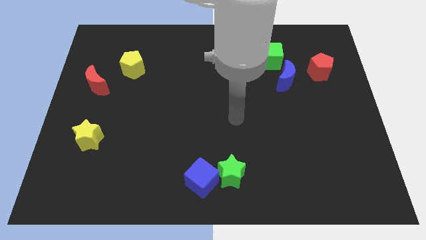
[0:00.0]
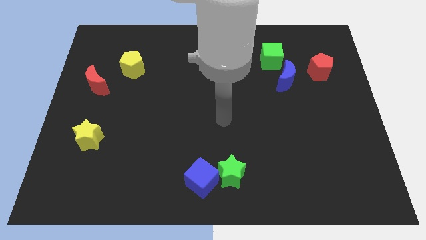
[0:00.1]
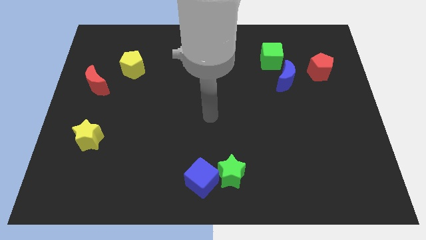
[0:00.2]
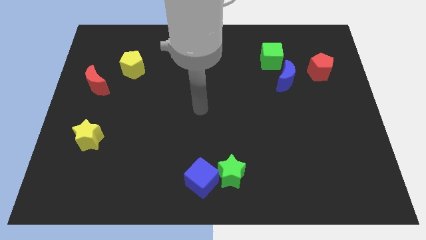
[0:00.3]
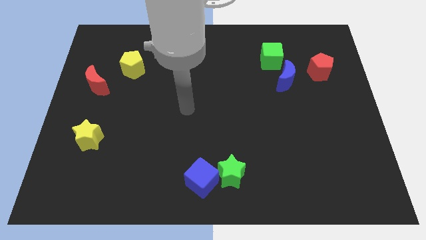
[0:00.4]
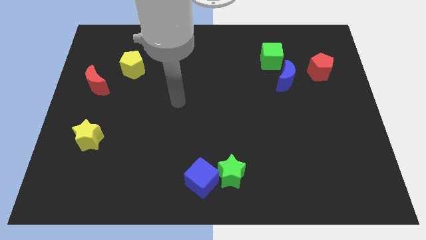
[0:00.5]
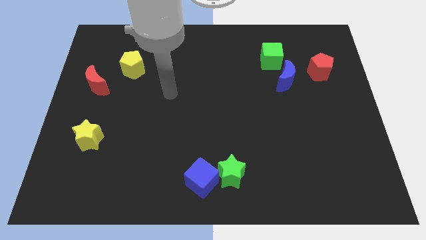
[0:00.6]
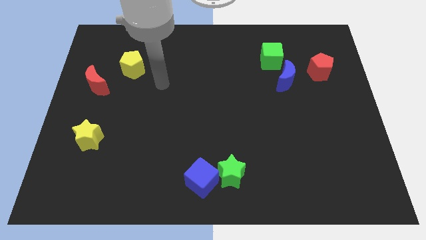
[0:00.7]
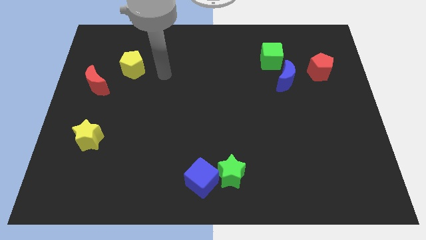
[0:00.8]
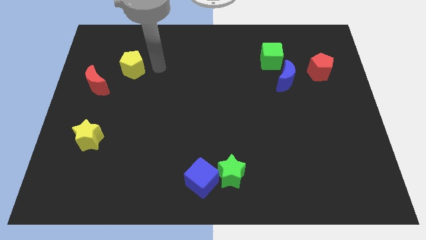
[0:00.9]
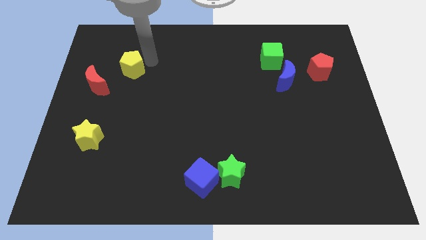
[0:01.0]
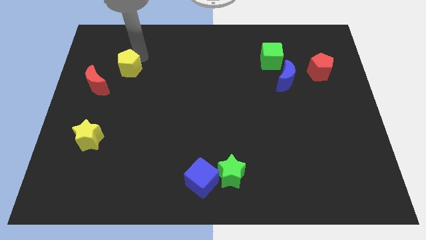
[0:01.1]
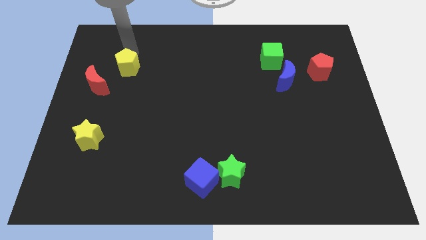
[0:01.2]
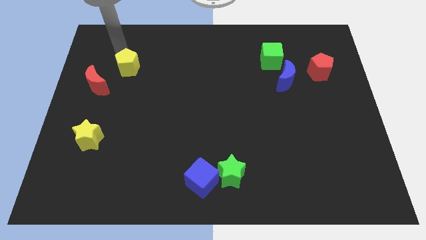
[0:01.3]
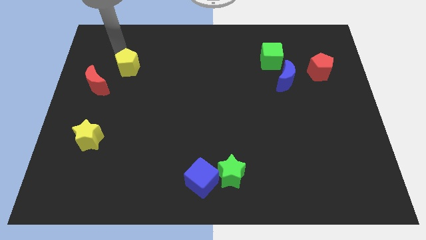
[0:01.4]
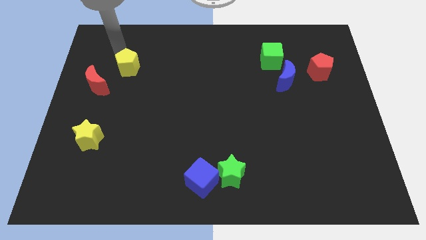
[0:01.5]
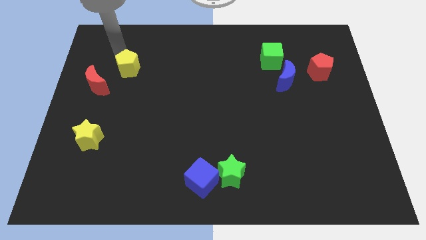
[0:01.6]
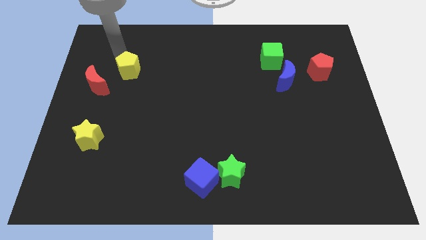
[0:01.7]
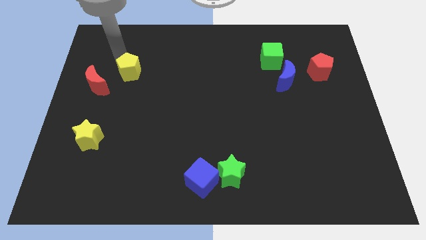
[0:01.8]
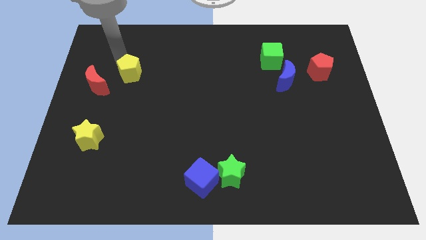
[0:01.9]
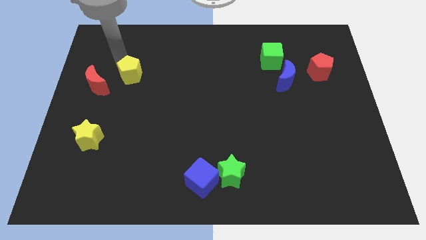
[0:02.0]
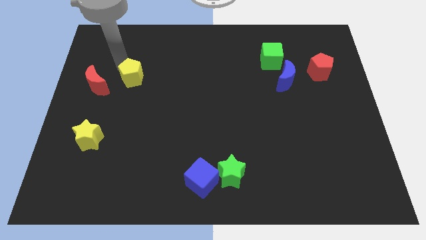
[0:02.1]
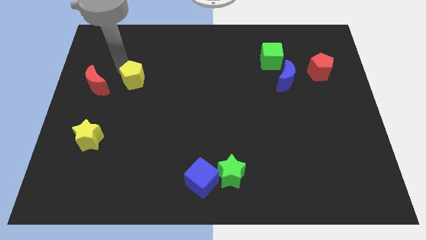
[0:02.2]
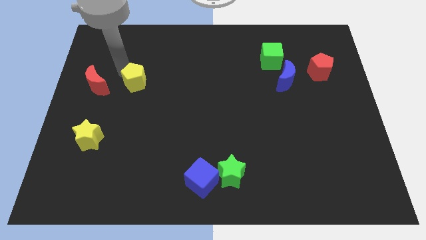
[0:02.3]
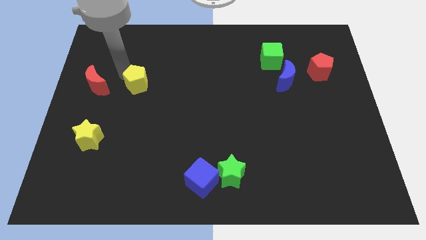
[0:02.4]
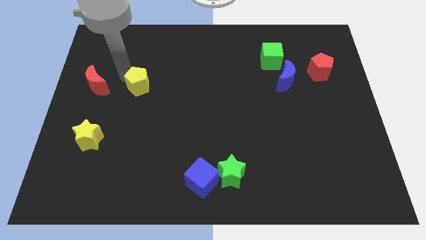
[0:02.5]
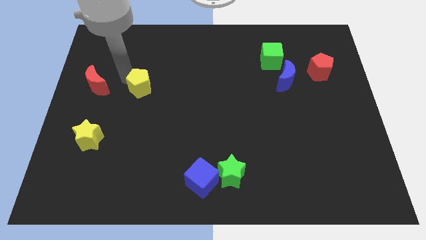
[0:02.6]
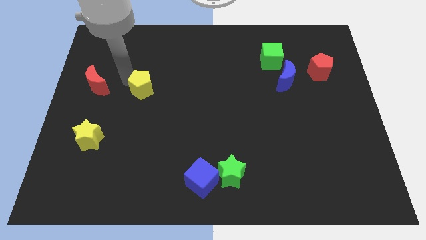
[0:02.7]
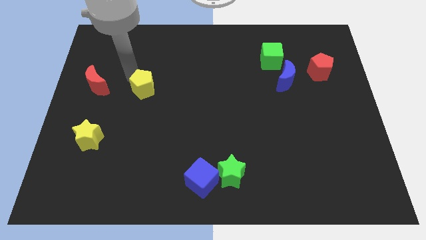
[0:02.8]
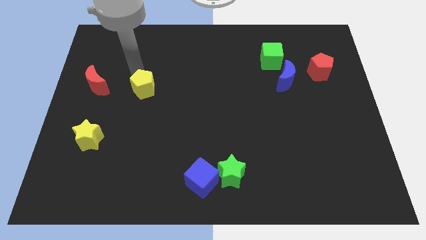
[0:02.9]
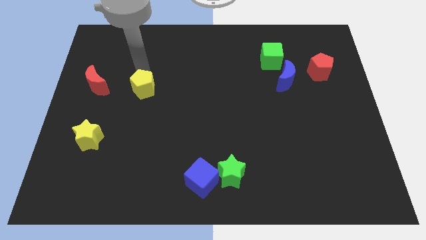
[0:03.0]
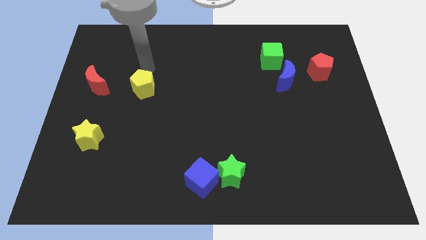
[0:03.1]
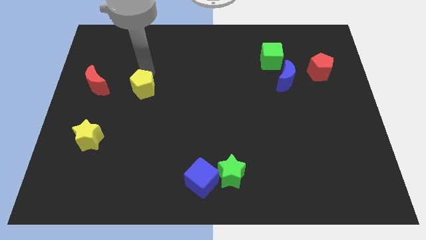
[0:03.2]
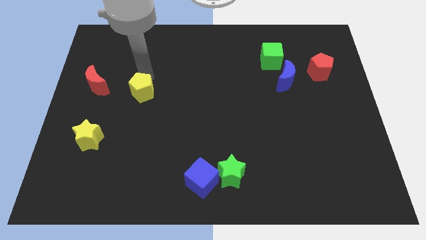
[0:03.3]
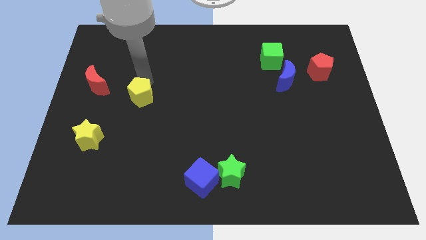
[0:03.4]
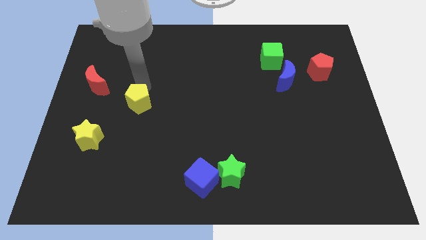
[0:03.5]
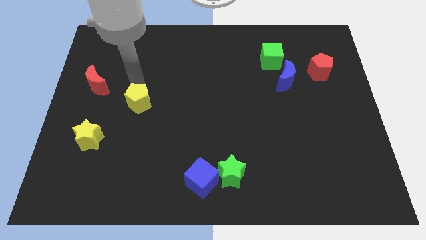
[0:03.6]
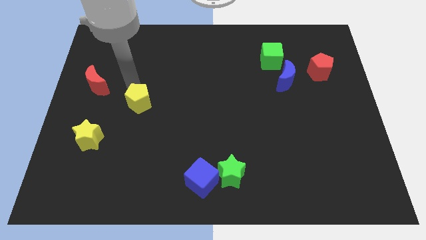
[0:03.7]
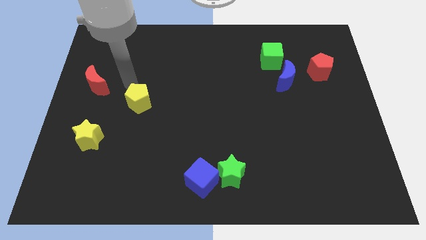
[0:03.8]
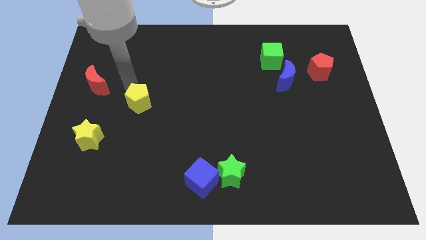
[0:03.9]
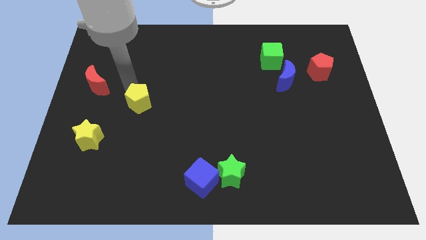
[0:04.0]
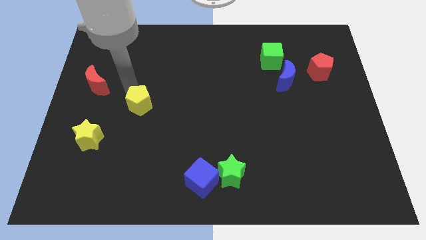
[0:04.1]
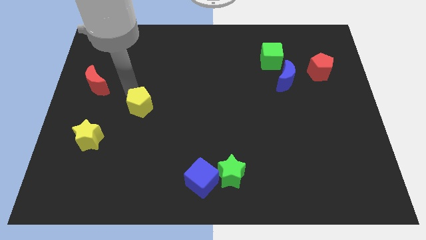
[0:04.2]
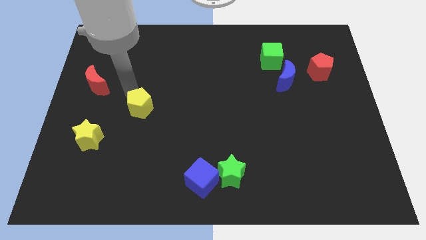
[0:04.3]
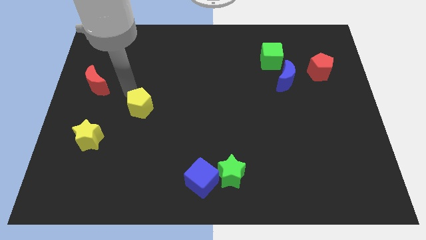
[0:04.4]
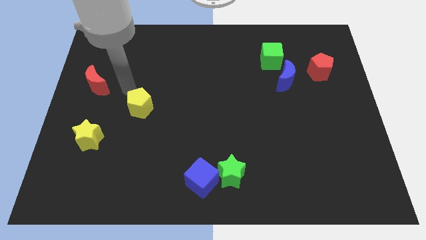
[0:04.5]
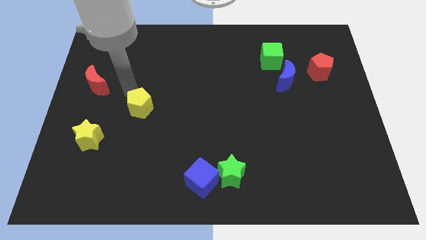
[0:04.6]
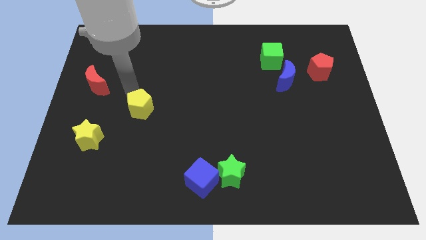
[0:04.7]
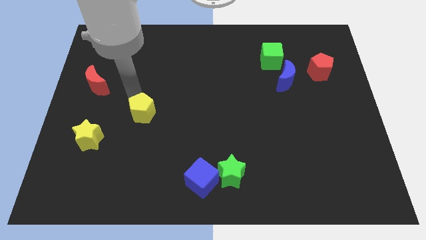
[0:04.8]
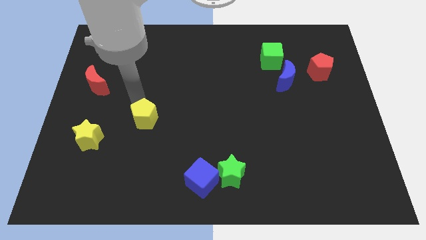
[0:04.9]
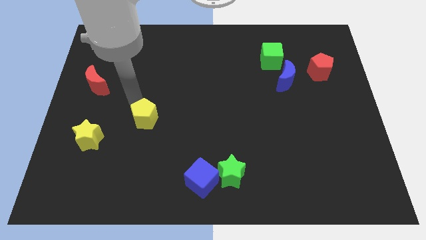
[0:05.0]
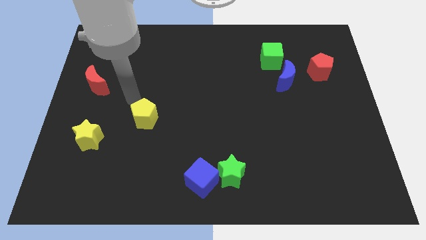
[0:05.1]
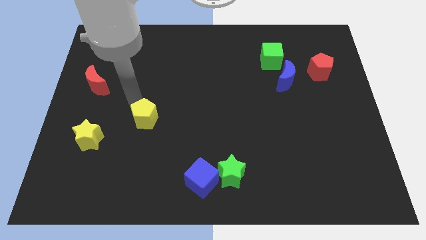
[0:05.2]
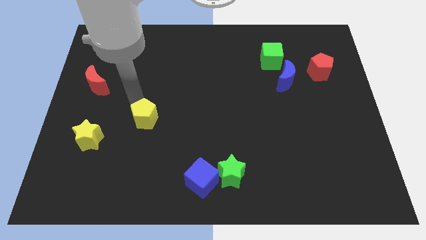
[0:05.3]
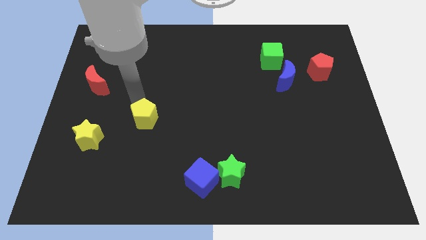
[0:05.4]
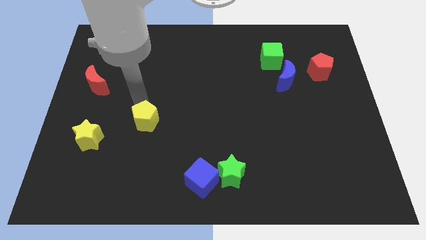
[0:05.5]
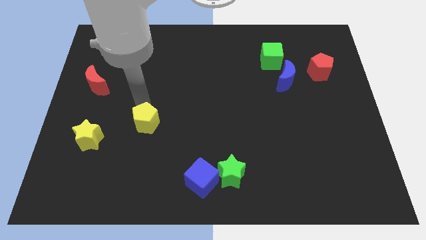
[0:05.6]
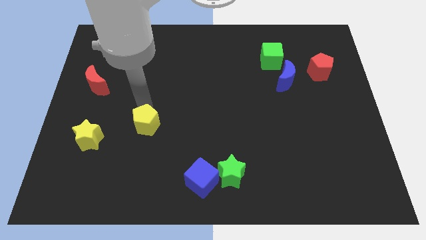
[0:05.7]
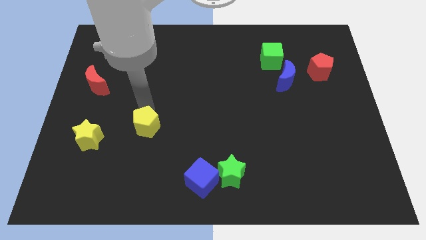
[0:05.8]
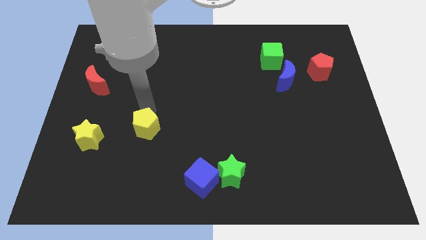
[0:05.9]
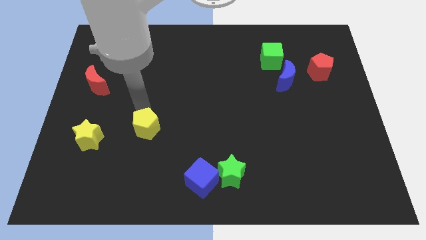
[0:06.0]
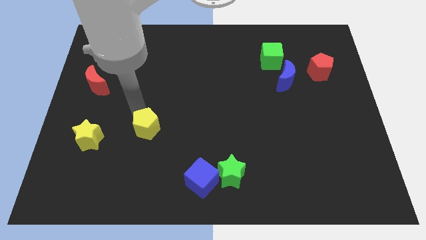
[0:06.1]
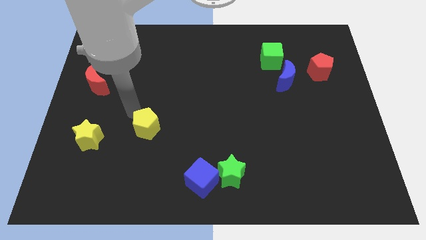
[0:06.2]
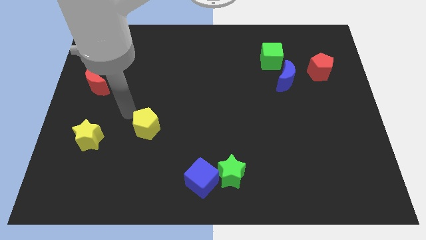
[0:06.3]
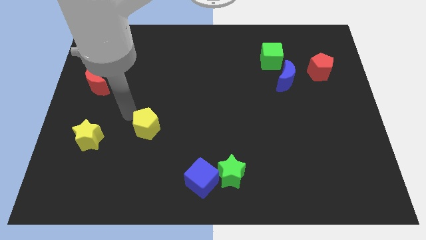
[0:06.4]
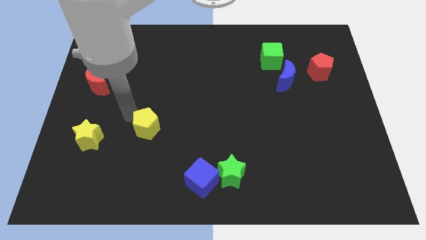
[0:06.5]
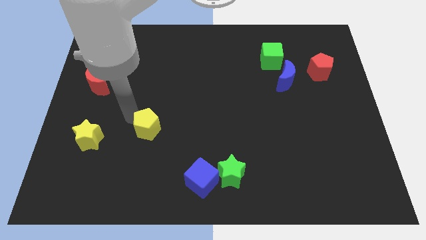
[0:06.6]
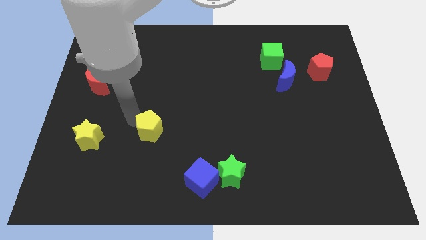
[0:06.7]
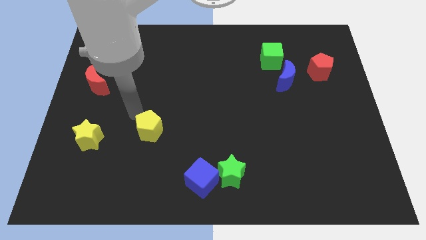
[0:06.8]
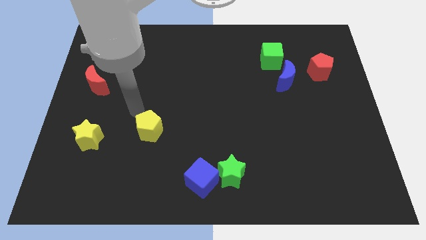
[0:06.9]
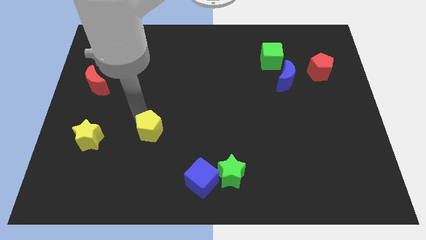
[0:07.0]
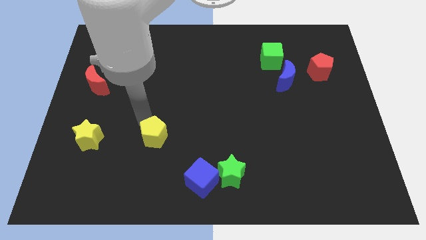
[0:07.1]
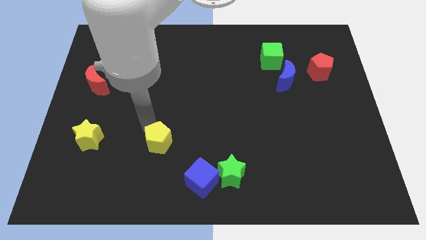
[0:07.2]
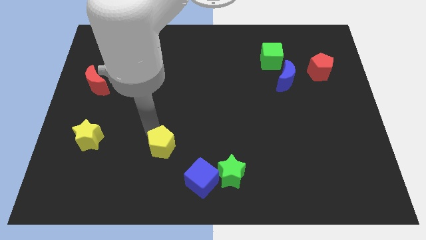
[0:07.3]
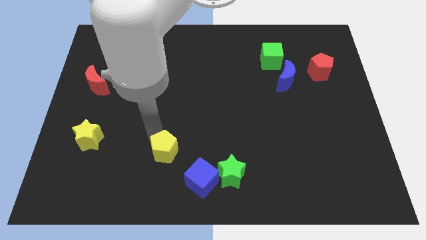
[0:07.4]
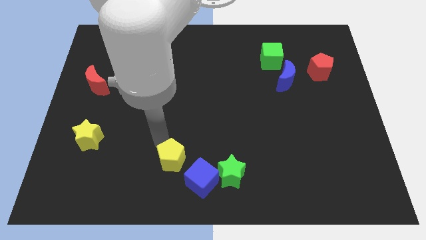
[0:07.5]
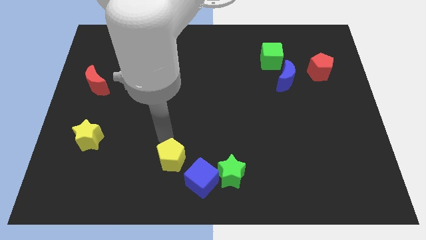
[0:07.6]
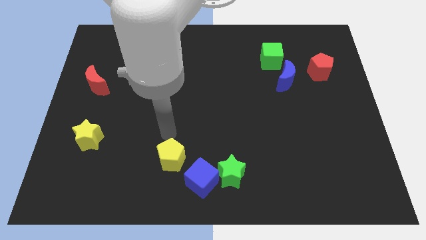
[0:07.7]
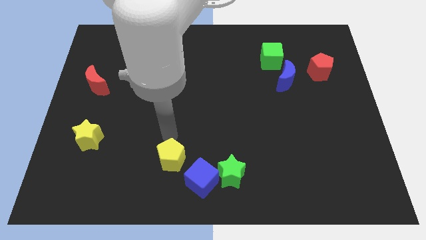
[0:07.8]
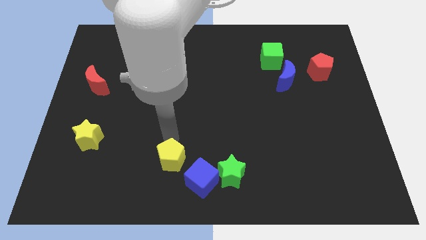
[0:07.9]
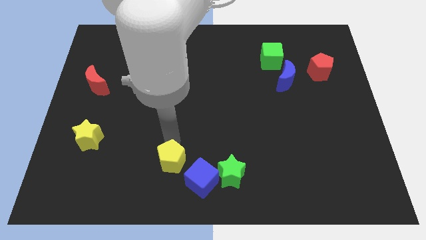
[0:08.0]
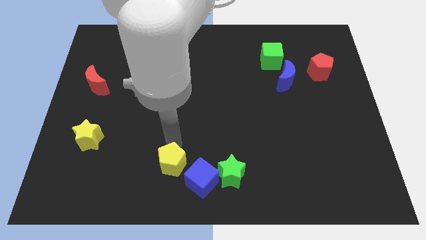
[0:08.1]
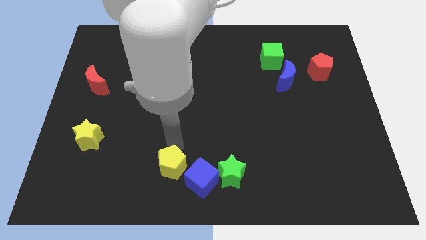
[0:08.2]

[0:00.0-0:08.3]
move the yellow pentagon to the bottom

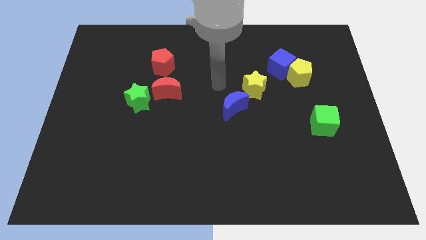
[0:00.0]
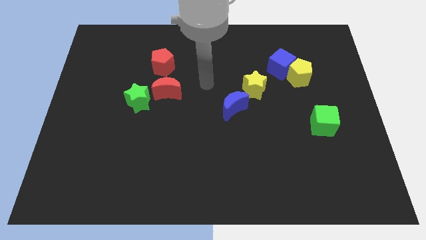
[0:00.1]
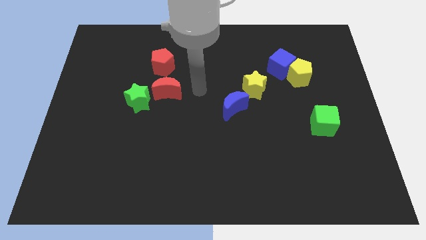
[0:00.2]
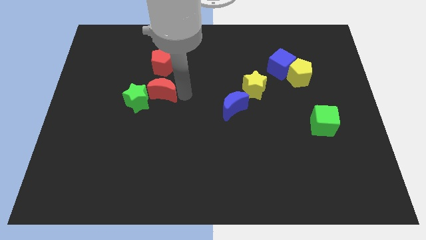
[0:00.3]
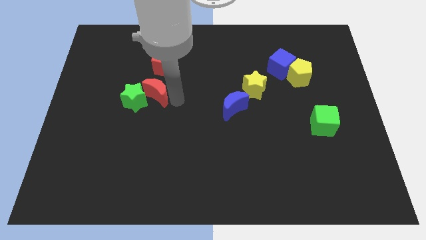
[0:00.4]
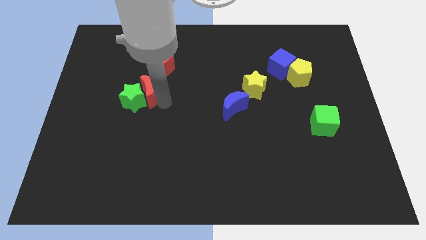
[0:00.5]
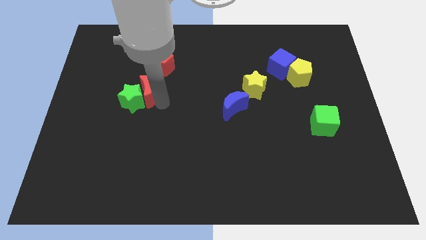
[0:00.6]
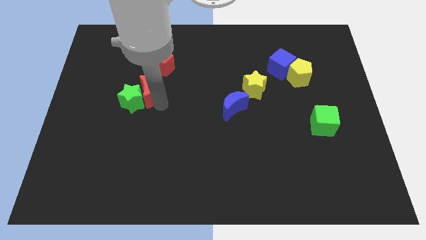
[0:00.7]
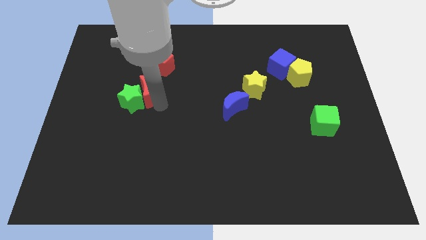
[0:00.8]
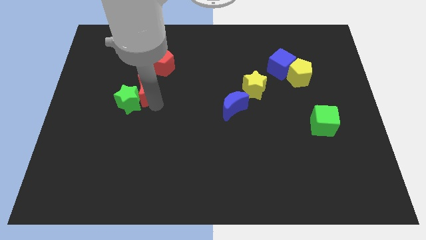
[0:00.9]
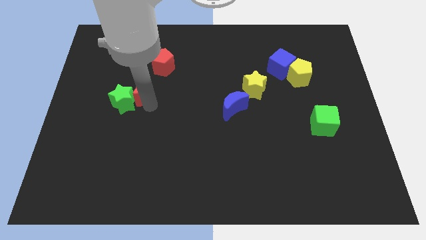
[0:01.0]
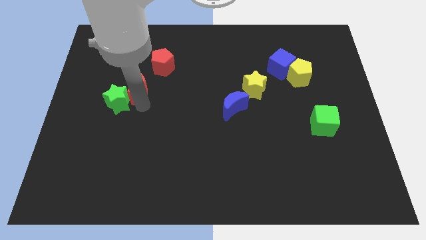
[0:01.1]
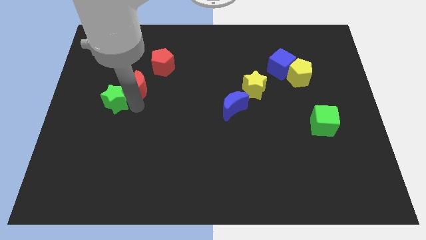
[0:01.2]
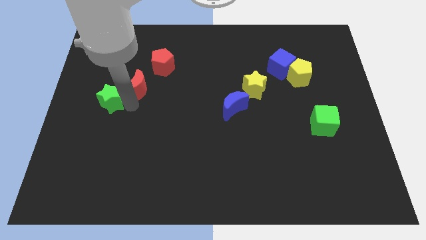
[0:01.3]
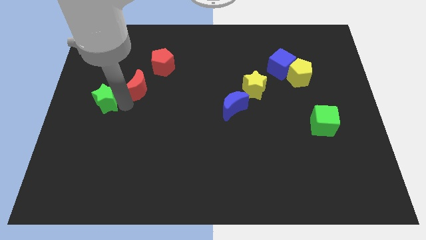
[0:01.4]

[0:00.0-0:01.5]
move the green star to the center left
